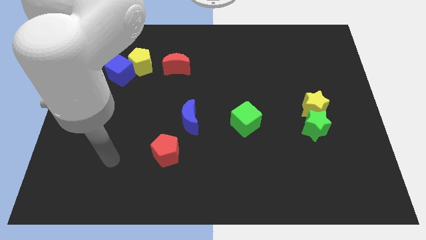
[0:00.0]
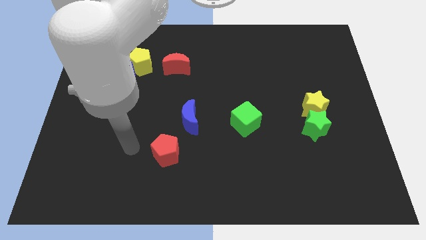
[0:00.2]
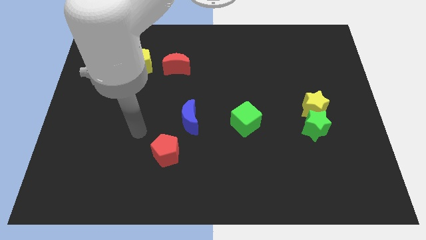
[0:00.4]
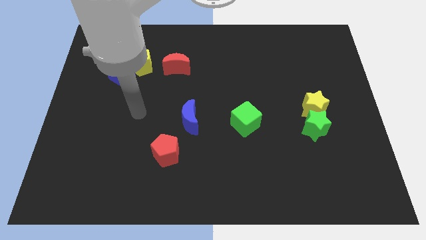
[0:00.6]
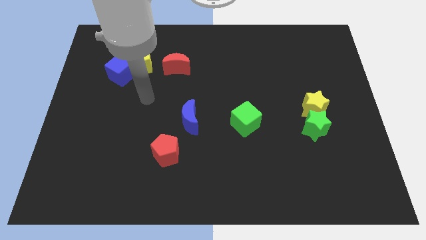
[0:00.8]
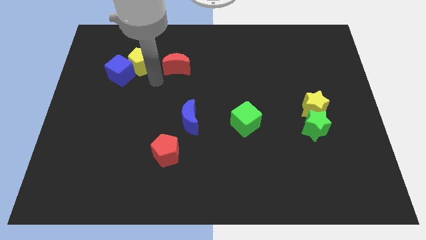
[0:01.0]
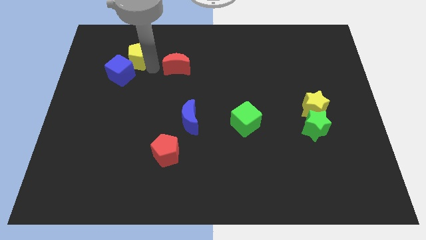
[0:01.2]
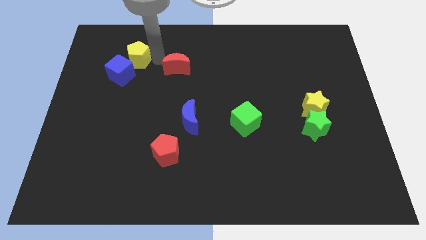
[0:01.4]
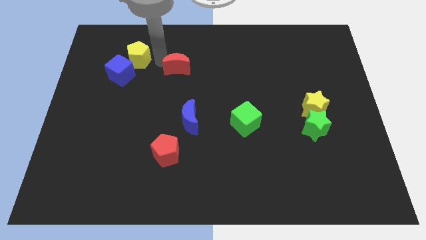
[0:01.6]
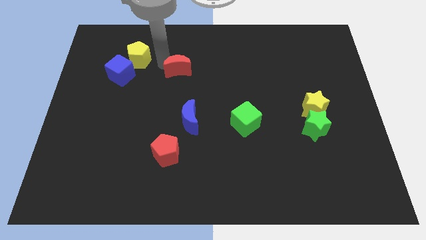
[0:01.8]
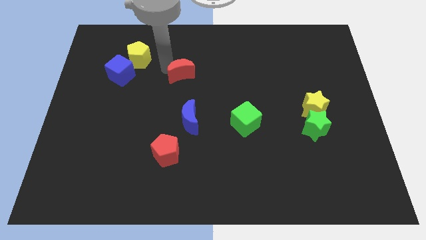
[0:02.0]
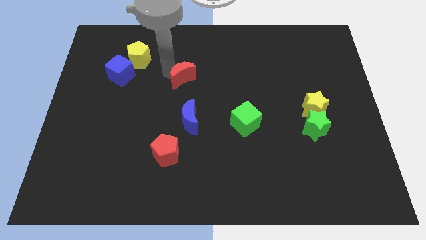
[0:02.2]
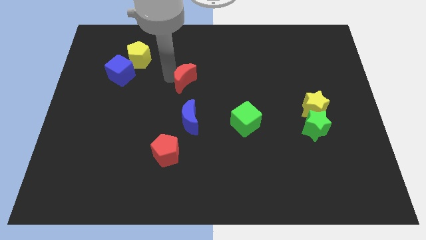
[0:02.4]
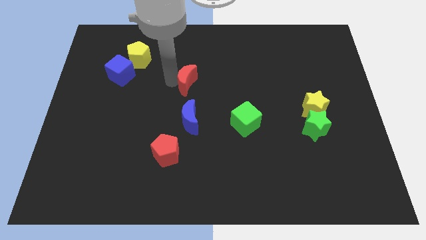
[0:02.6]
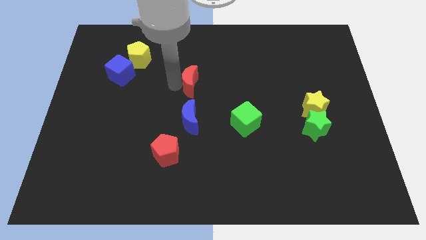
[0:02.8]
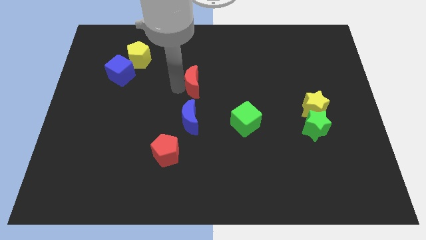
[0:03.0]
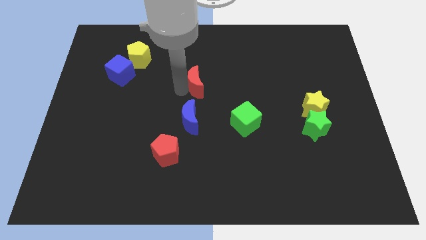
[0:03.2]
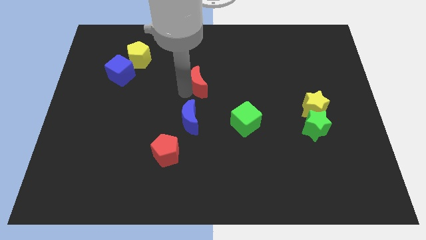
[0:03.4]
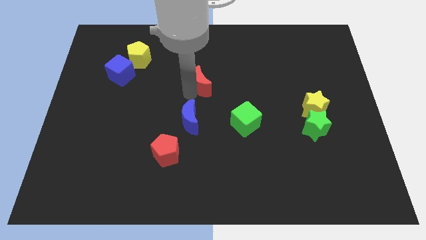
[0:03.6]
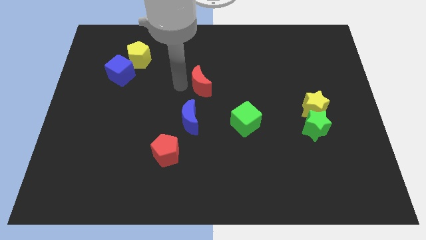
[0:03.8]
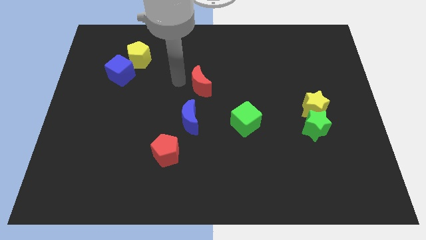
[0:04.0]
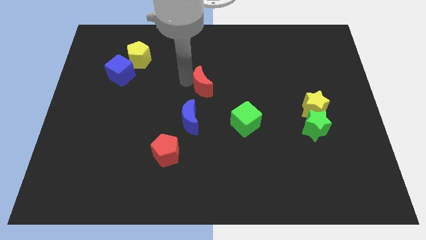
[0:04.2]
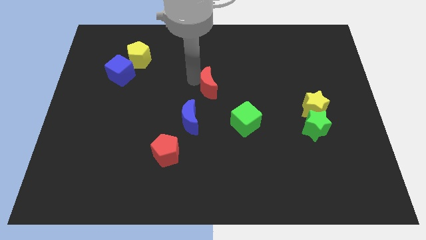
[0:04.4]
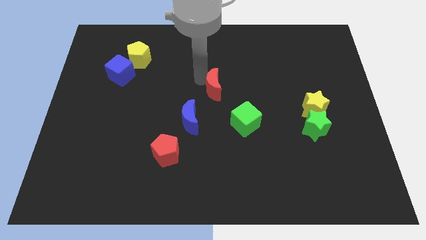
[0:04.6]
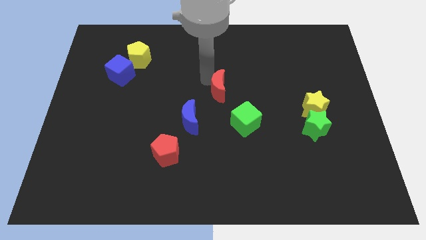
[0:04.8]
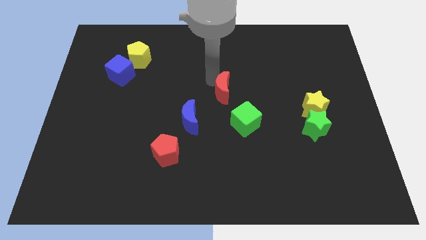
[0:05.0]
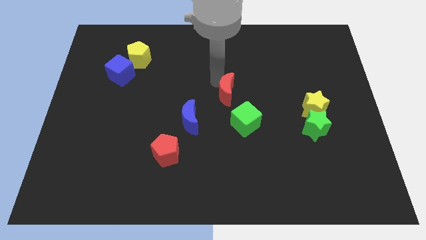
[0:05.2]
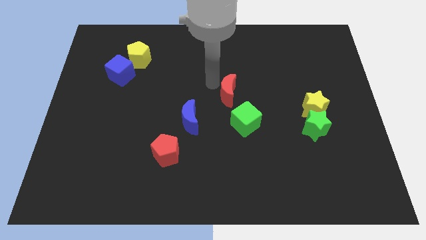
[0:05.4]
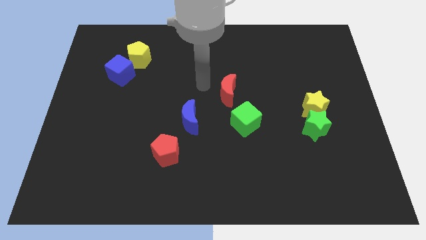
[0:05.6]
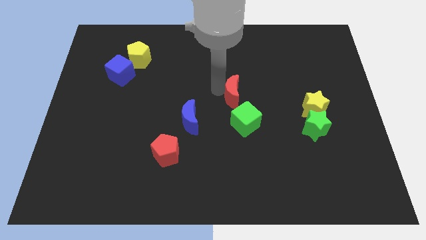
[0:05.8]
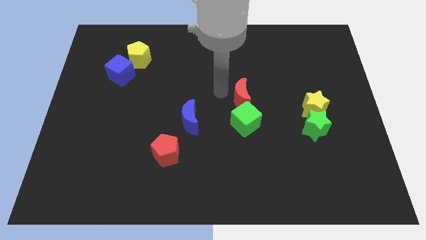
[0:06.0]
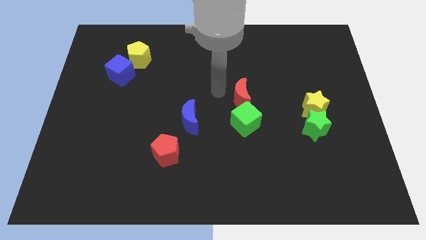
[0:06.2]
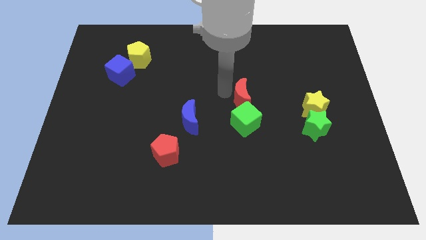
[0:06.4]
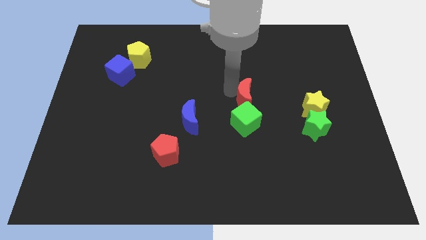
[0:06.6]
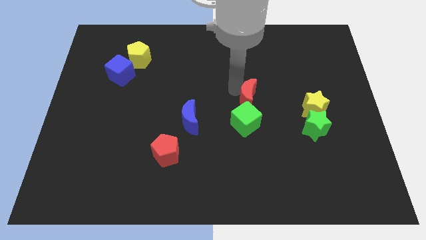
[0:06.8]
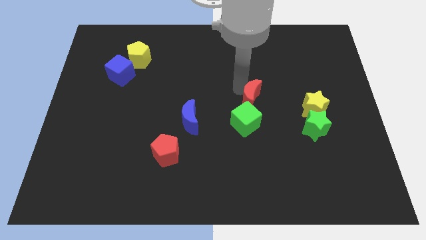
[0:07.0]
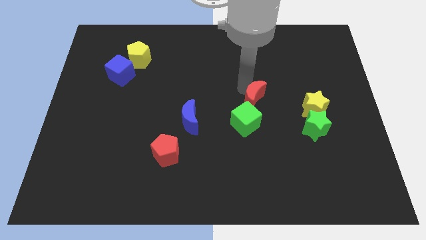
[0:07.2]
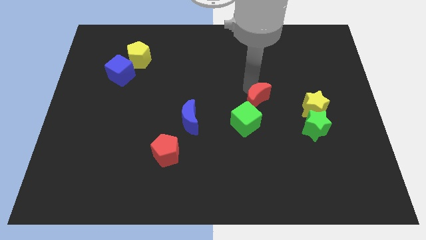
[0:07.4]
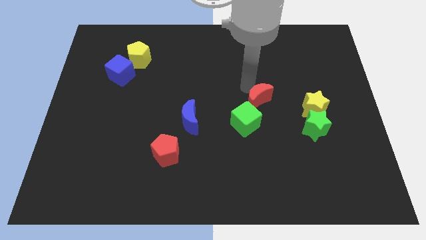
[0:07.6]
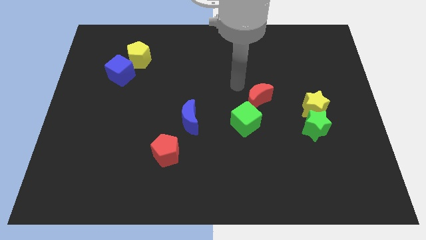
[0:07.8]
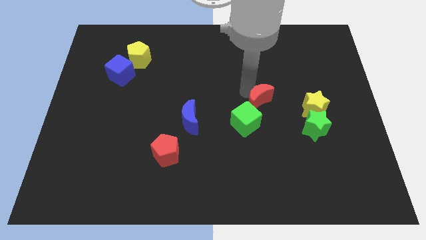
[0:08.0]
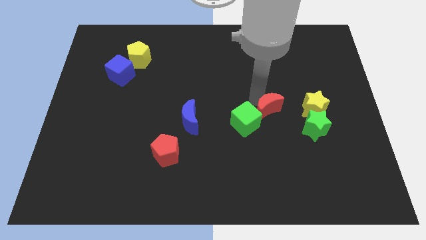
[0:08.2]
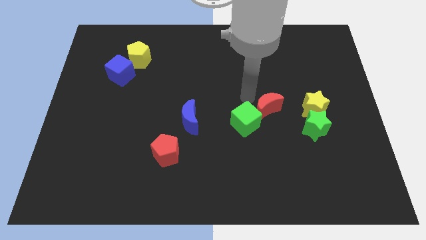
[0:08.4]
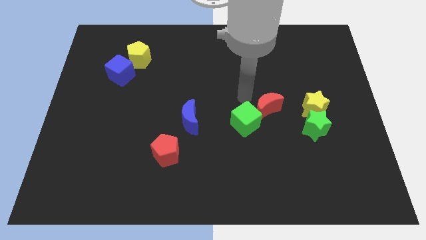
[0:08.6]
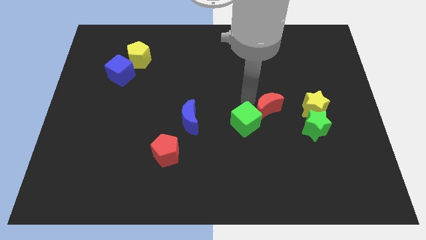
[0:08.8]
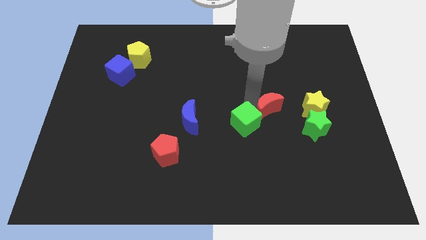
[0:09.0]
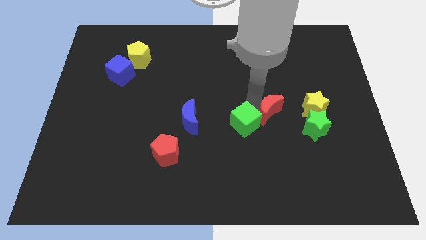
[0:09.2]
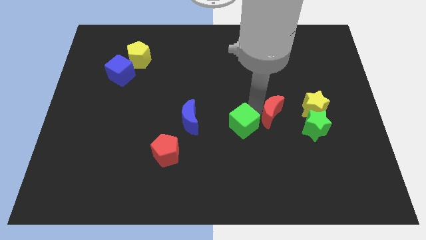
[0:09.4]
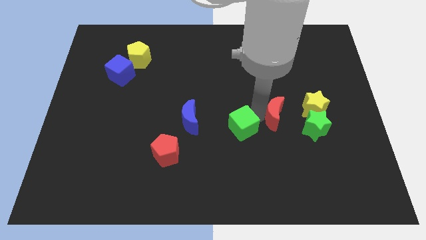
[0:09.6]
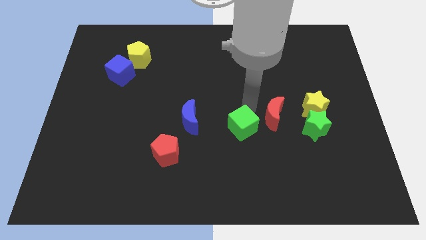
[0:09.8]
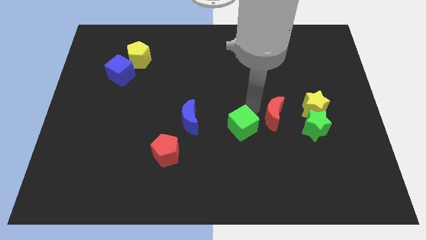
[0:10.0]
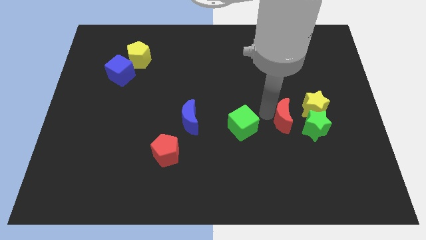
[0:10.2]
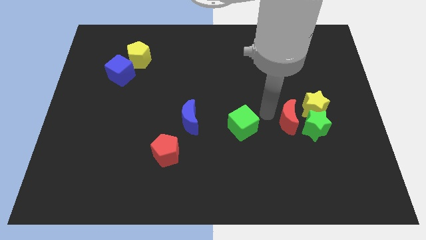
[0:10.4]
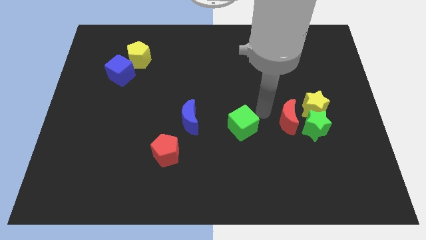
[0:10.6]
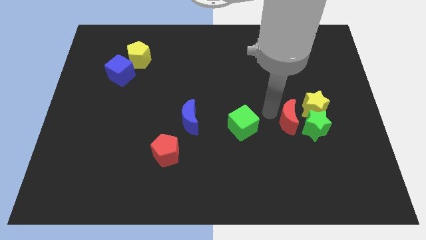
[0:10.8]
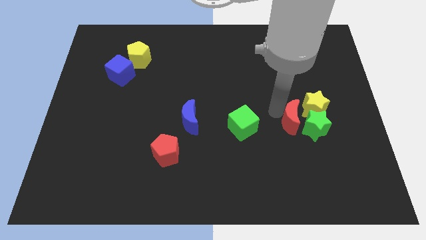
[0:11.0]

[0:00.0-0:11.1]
put the red moon to the green star

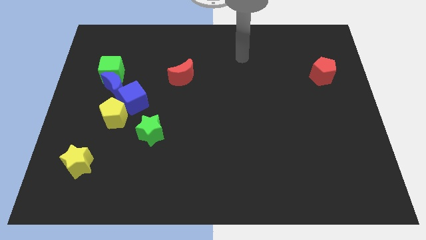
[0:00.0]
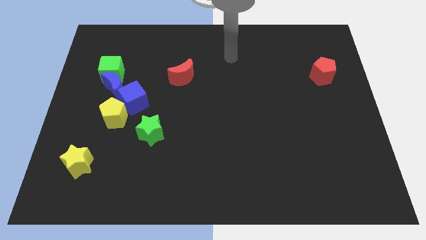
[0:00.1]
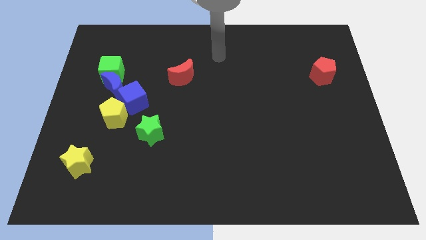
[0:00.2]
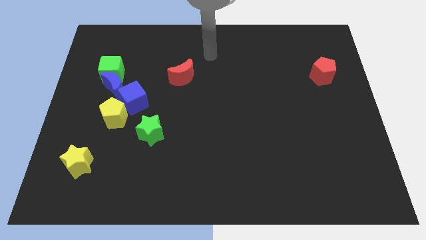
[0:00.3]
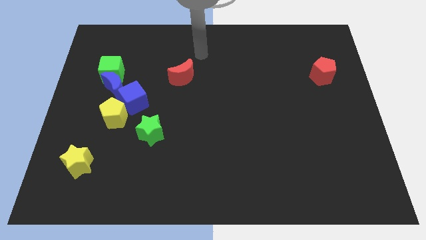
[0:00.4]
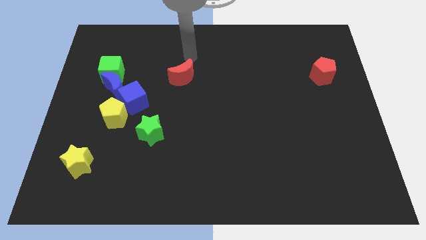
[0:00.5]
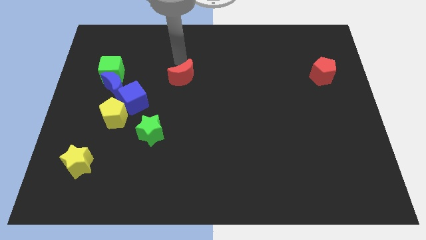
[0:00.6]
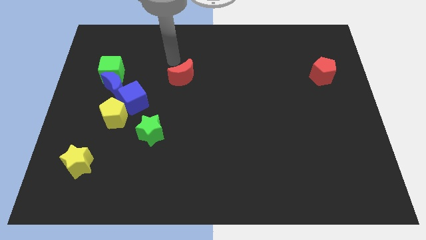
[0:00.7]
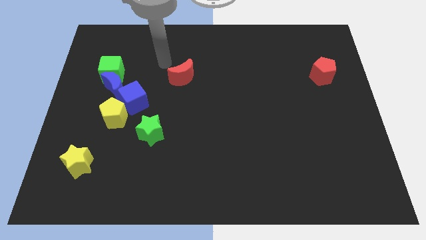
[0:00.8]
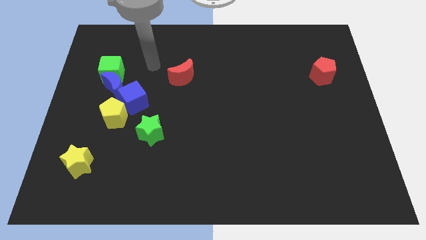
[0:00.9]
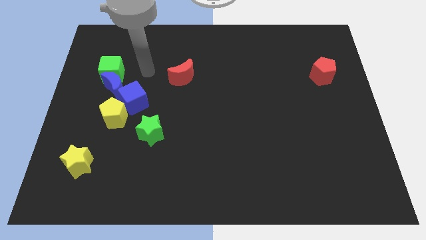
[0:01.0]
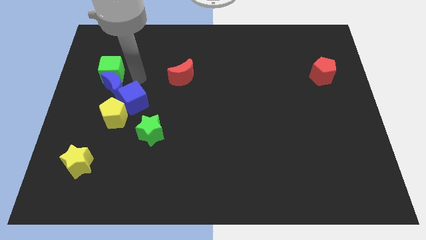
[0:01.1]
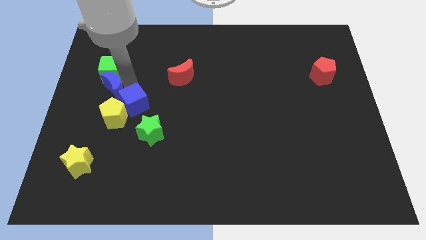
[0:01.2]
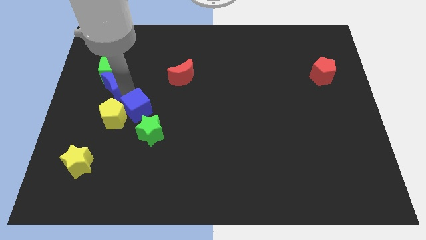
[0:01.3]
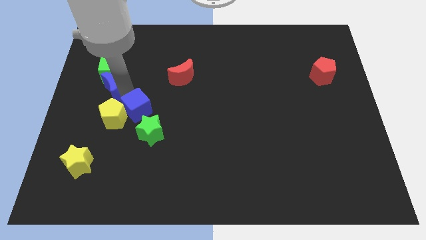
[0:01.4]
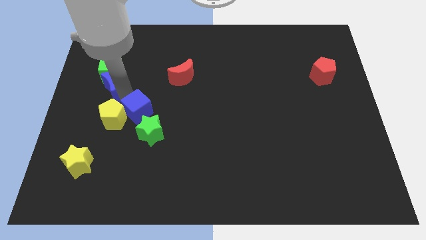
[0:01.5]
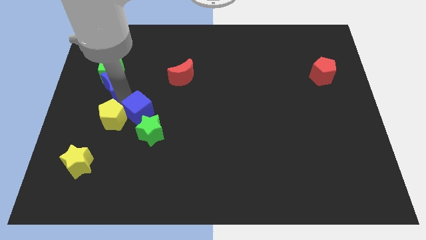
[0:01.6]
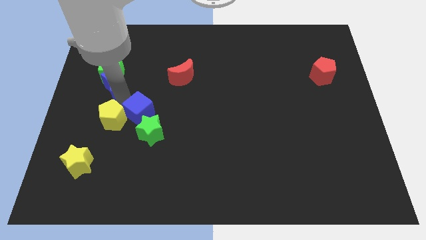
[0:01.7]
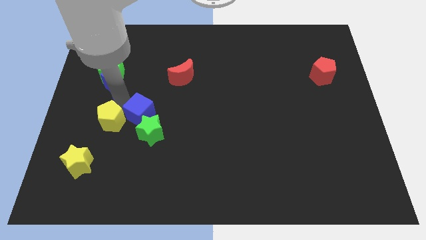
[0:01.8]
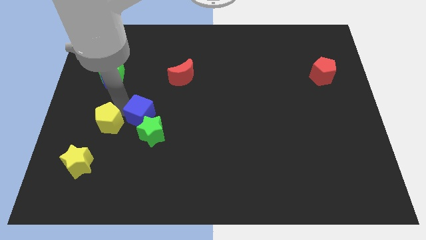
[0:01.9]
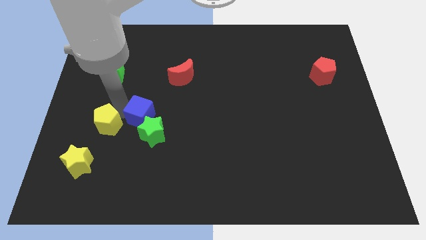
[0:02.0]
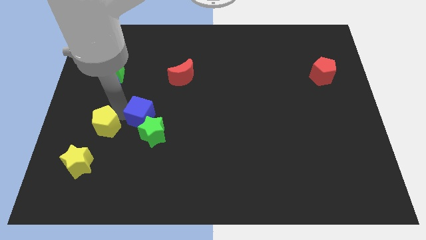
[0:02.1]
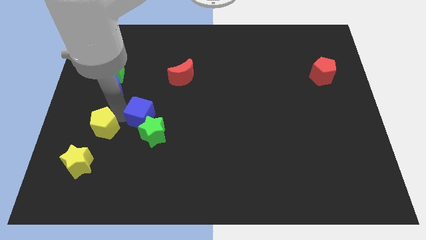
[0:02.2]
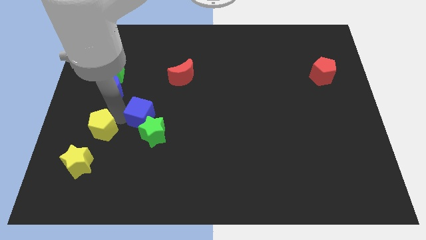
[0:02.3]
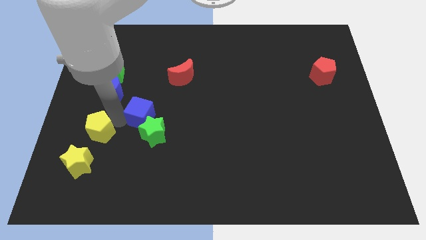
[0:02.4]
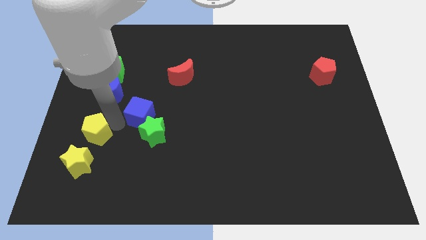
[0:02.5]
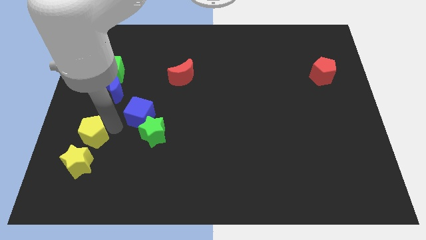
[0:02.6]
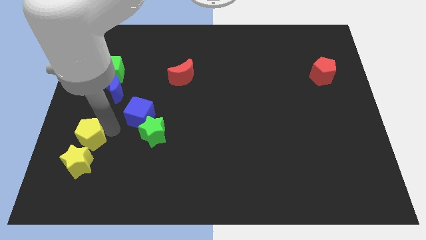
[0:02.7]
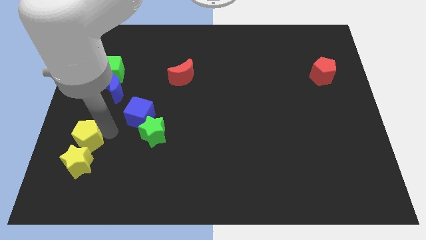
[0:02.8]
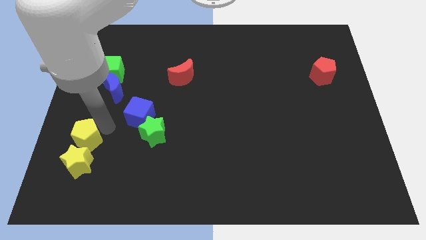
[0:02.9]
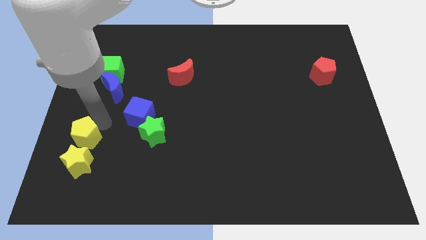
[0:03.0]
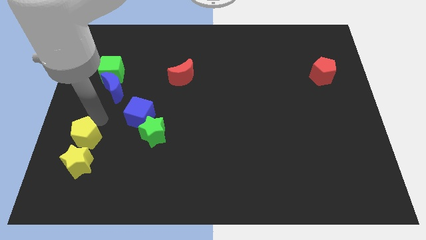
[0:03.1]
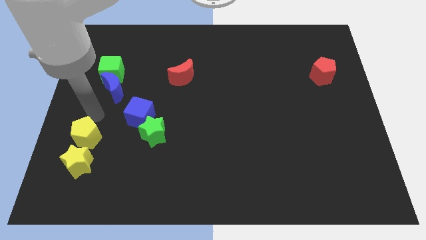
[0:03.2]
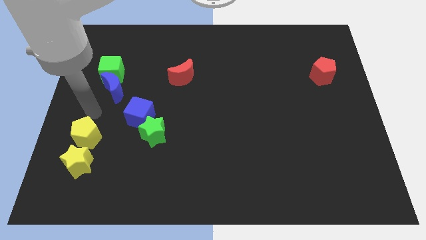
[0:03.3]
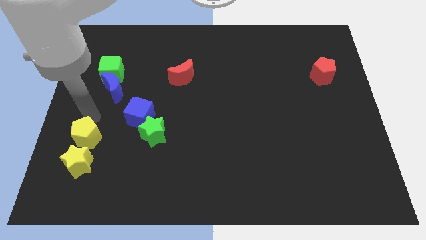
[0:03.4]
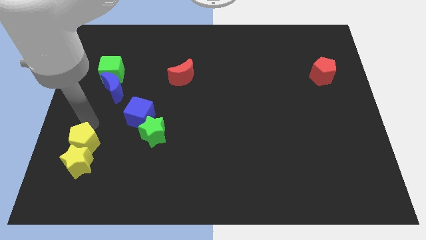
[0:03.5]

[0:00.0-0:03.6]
put the yellow pentagon close to the yellow star
